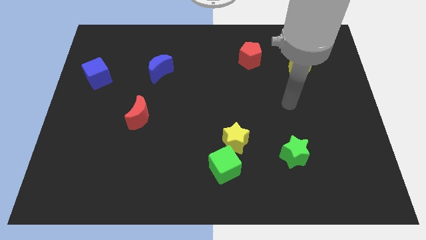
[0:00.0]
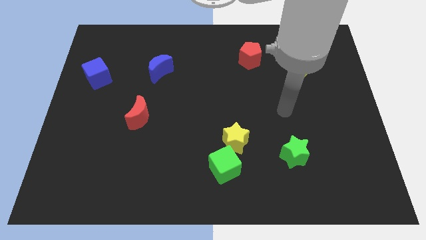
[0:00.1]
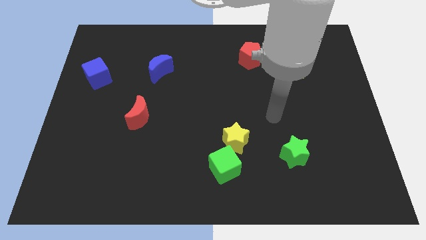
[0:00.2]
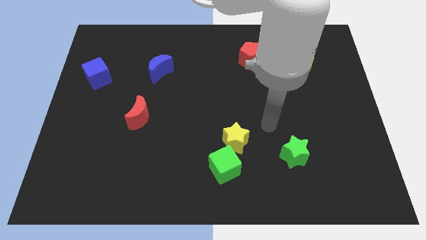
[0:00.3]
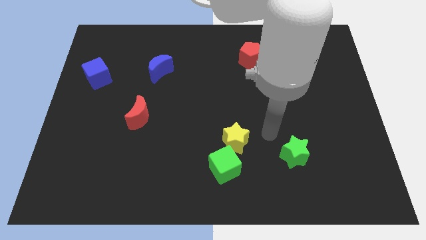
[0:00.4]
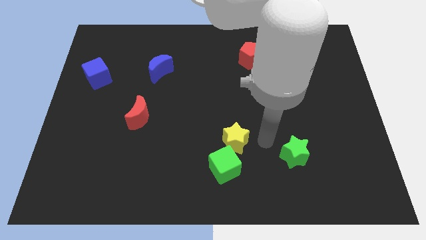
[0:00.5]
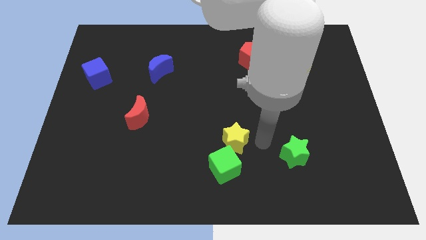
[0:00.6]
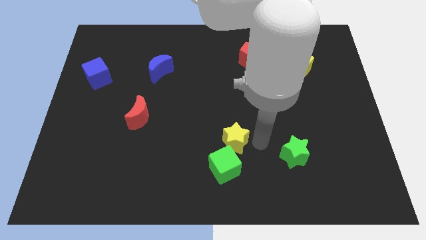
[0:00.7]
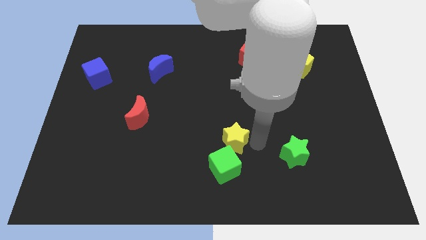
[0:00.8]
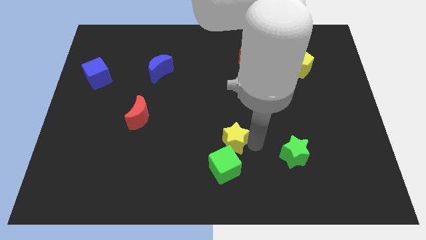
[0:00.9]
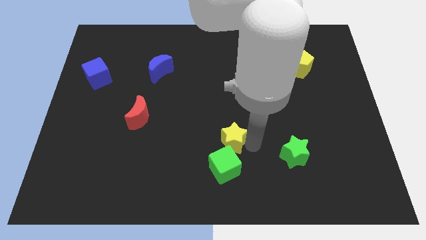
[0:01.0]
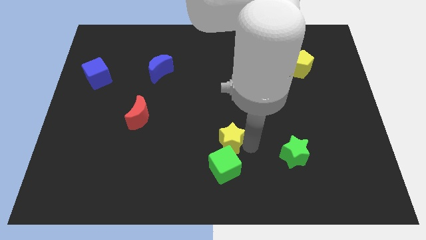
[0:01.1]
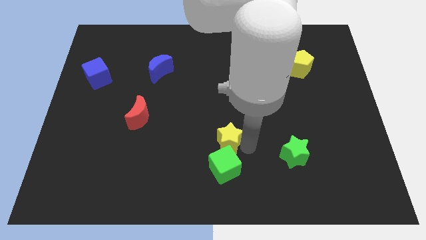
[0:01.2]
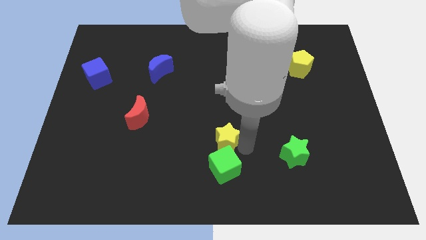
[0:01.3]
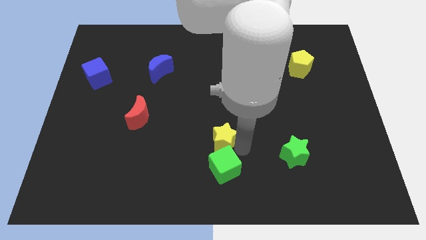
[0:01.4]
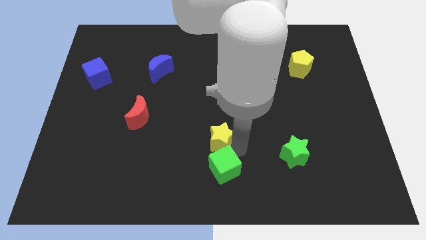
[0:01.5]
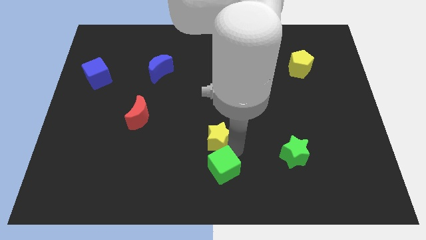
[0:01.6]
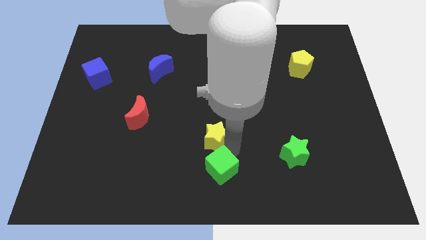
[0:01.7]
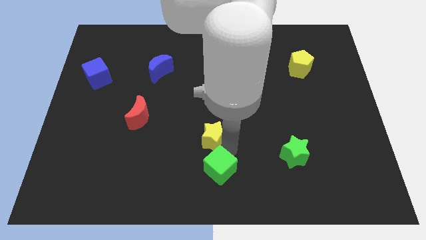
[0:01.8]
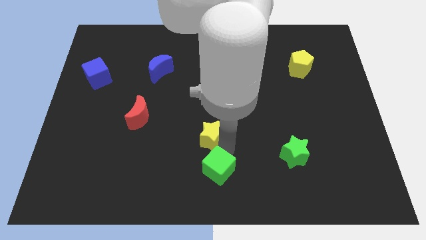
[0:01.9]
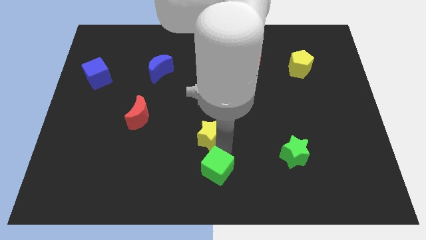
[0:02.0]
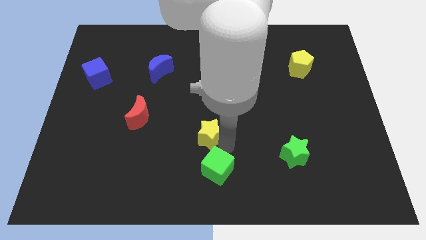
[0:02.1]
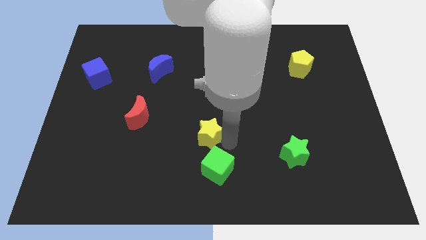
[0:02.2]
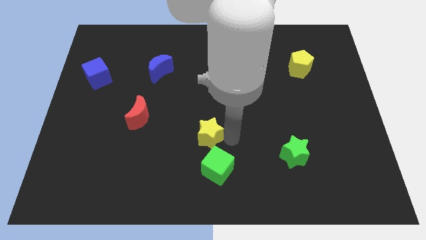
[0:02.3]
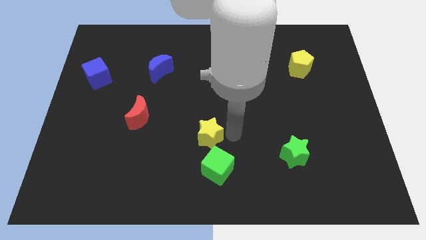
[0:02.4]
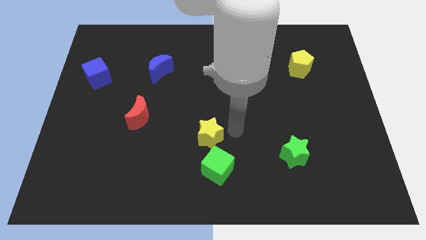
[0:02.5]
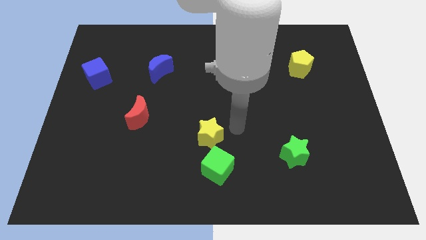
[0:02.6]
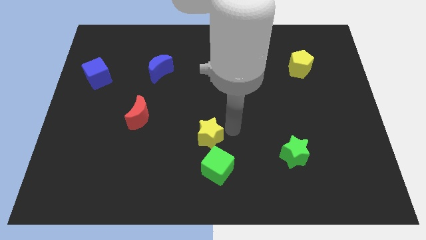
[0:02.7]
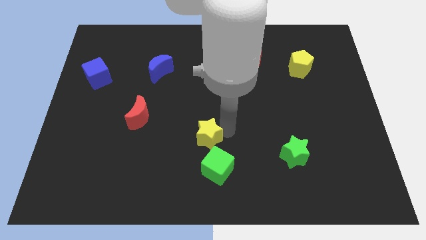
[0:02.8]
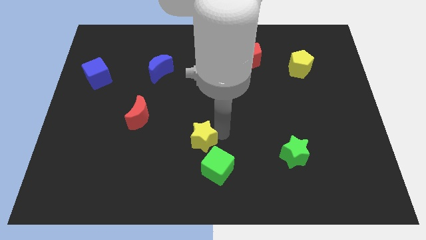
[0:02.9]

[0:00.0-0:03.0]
slightly push the yellow star left

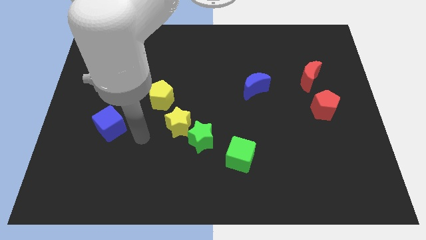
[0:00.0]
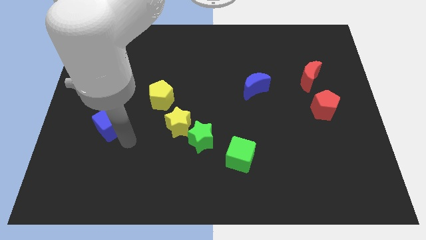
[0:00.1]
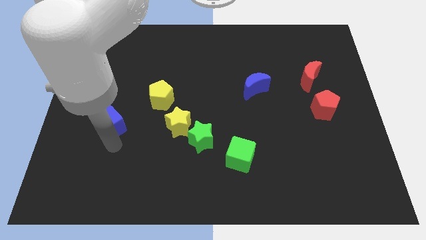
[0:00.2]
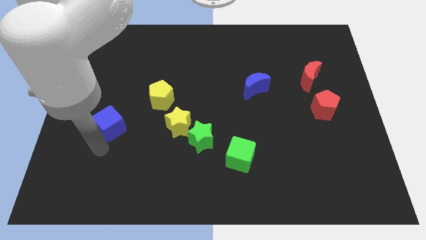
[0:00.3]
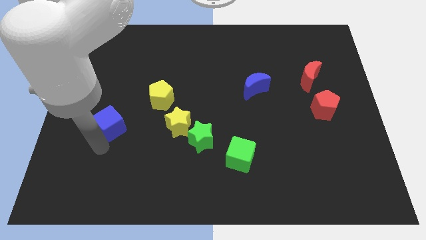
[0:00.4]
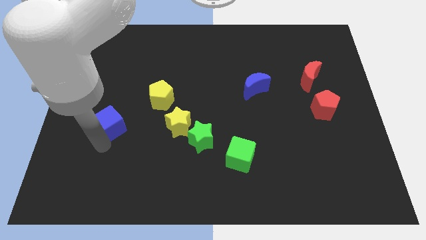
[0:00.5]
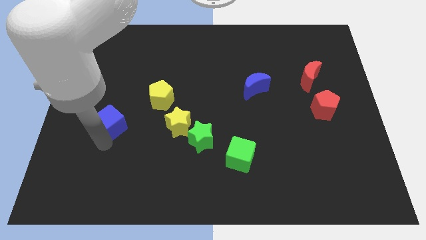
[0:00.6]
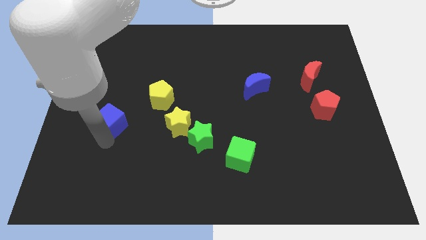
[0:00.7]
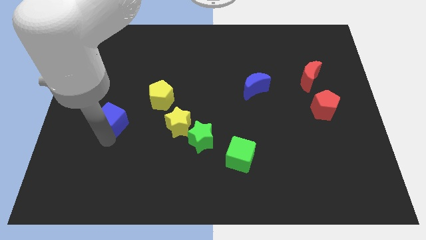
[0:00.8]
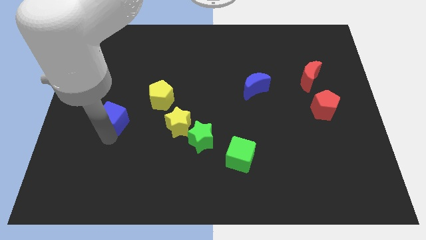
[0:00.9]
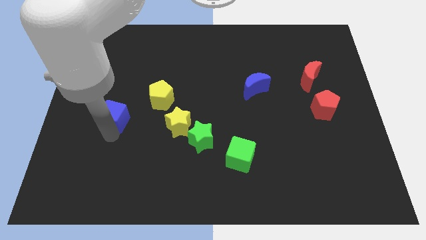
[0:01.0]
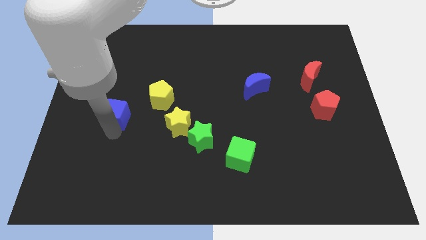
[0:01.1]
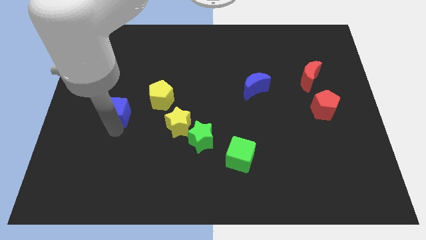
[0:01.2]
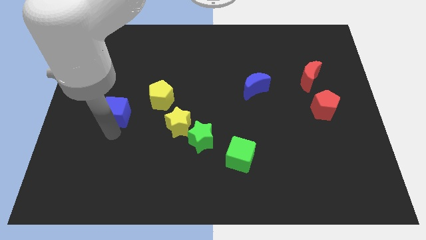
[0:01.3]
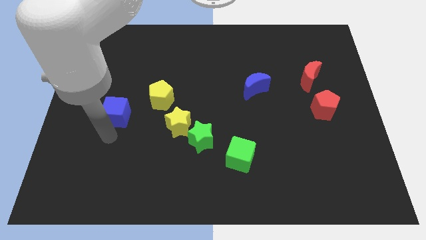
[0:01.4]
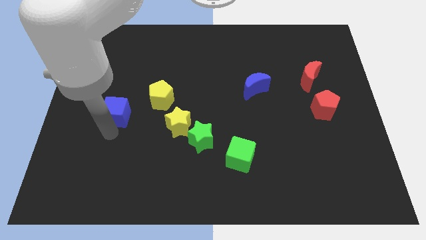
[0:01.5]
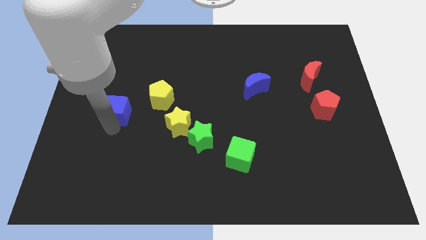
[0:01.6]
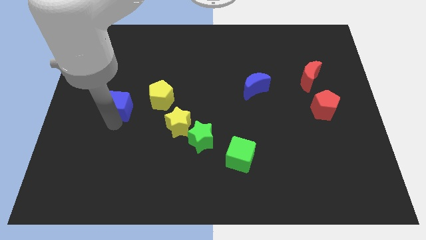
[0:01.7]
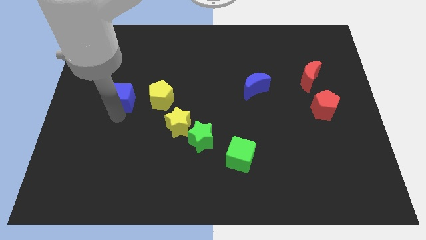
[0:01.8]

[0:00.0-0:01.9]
move the blue cube up somewhat

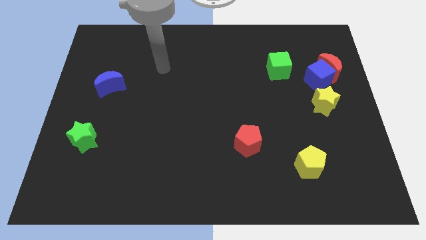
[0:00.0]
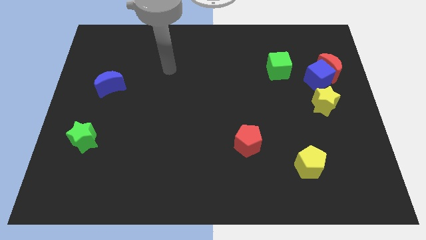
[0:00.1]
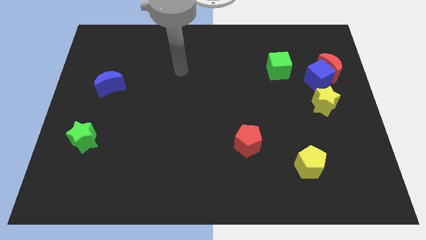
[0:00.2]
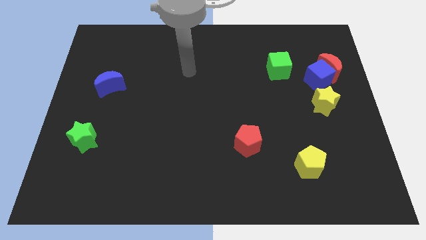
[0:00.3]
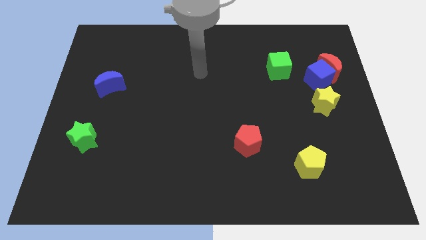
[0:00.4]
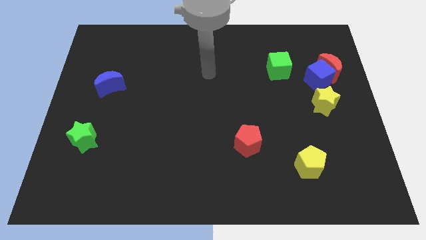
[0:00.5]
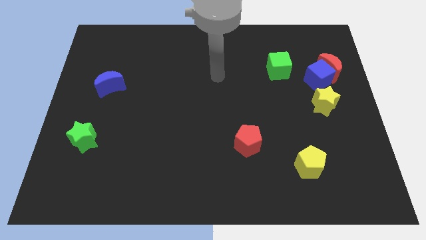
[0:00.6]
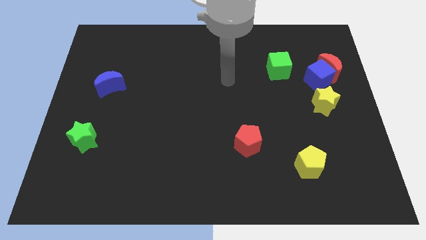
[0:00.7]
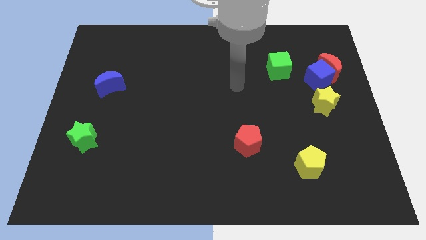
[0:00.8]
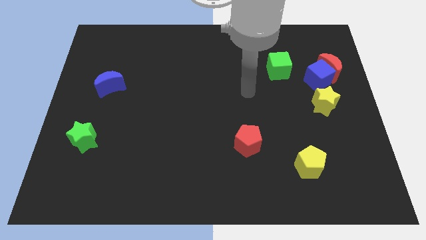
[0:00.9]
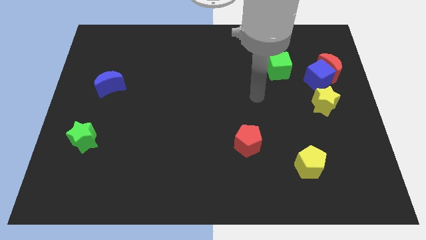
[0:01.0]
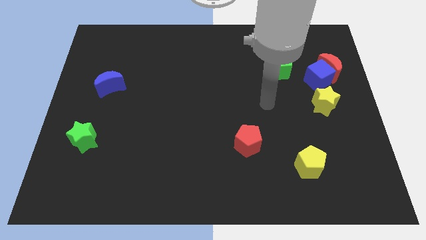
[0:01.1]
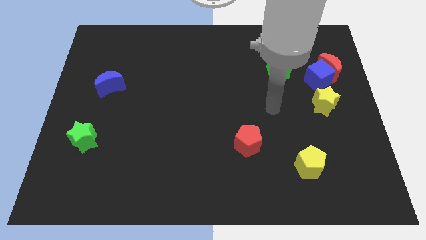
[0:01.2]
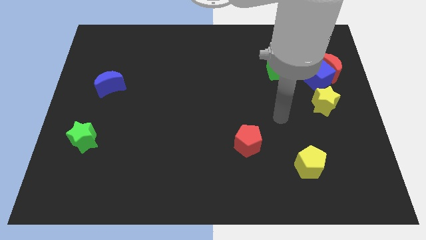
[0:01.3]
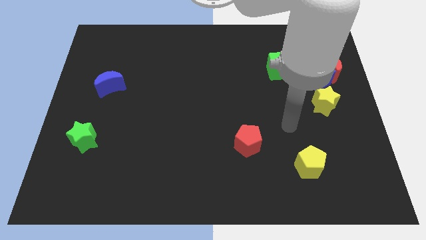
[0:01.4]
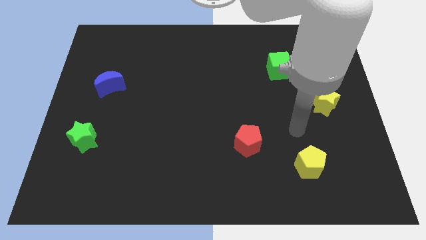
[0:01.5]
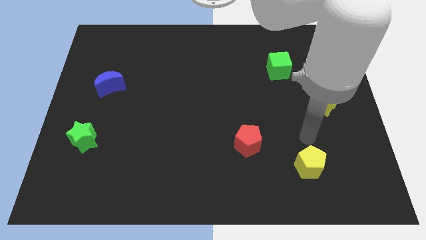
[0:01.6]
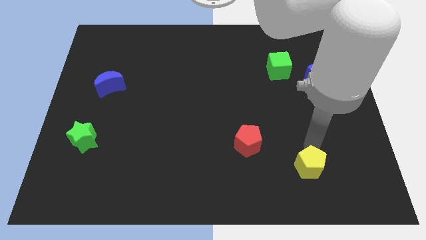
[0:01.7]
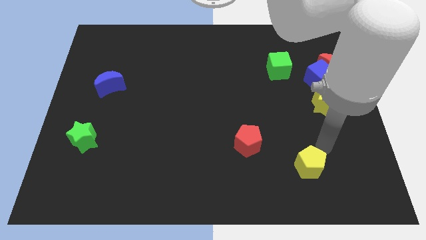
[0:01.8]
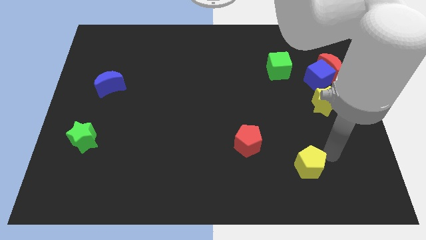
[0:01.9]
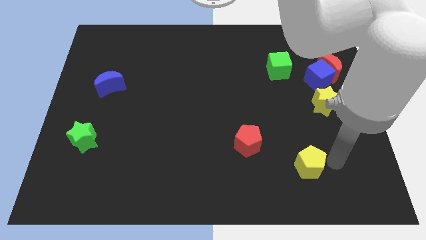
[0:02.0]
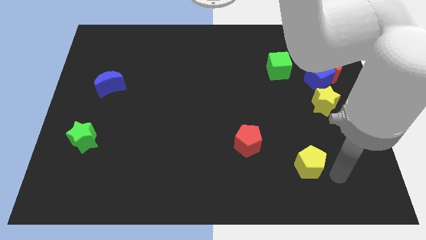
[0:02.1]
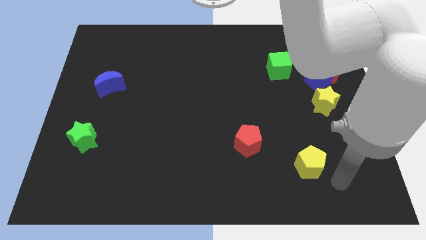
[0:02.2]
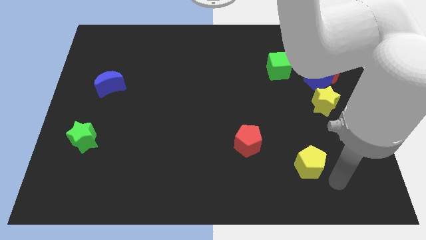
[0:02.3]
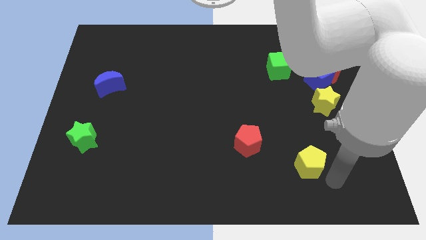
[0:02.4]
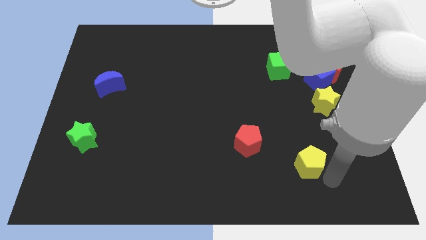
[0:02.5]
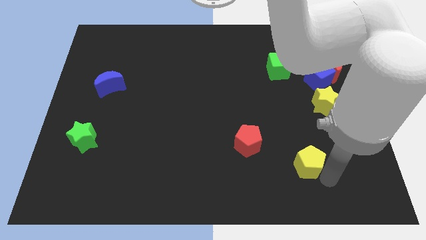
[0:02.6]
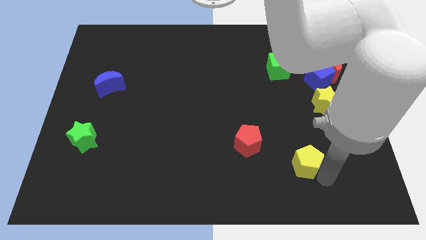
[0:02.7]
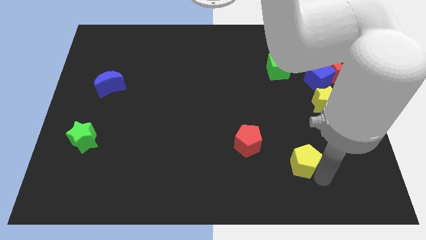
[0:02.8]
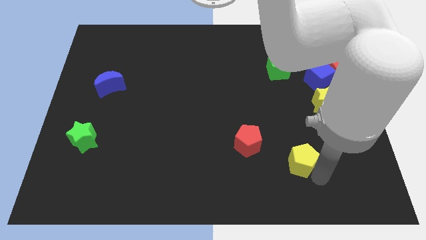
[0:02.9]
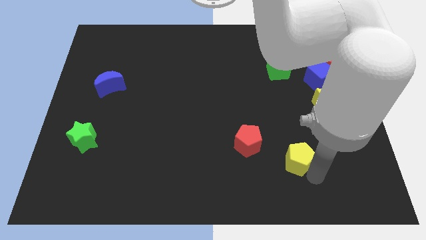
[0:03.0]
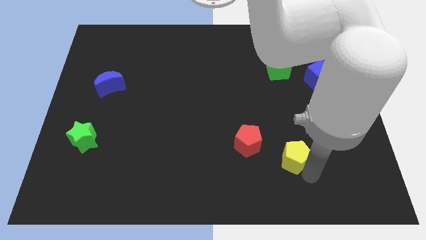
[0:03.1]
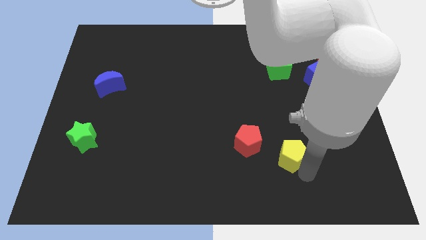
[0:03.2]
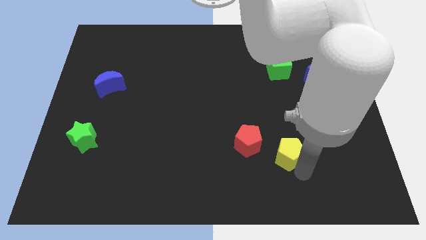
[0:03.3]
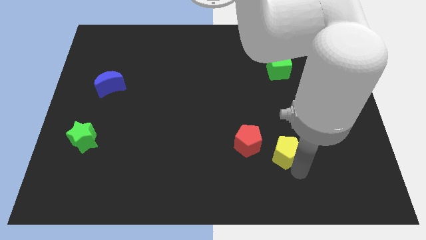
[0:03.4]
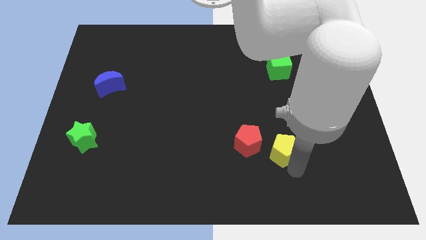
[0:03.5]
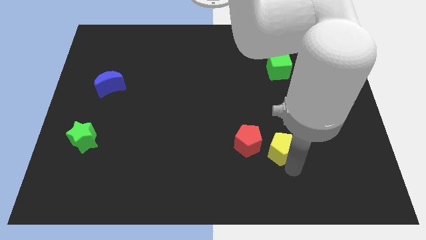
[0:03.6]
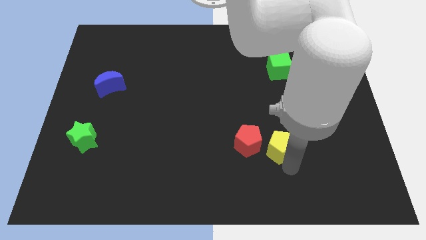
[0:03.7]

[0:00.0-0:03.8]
push the yellow pentagon a little bit up and then to the left
